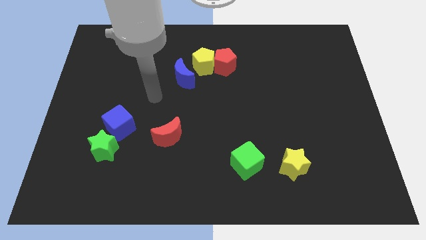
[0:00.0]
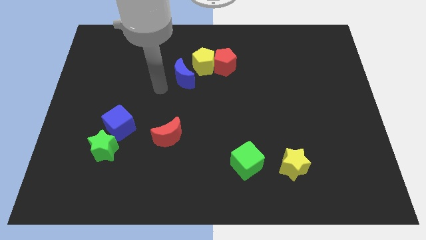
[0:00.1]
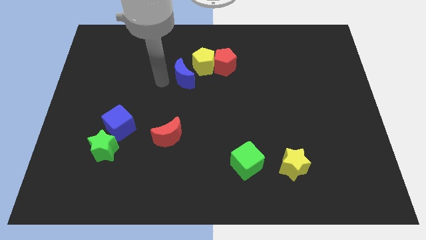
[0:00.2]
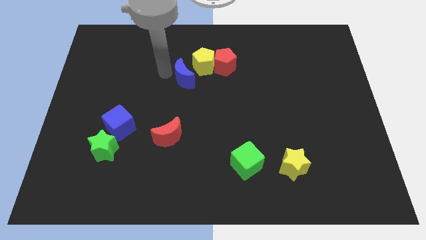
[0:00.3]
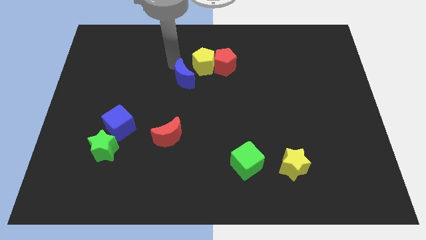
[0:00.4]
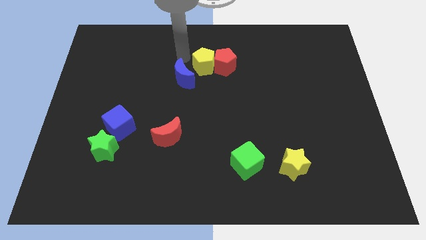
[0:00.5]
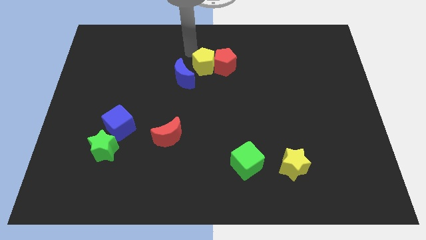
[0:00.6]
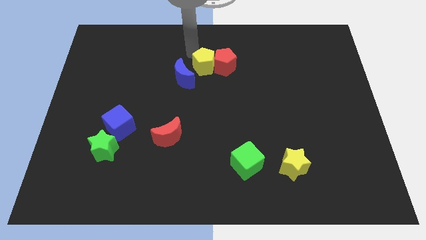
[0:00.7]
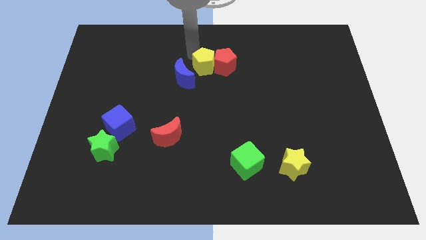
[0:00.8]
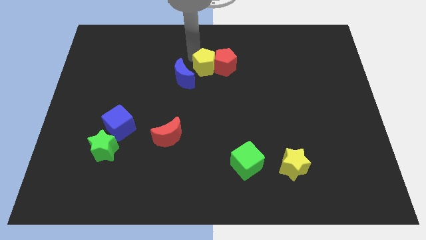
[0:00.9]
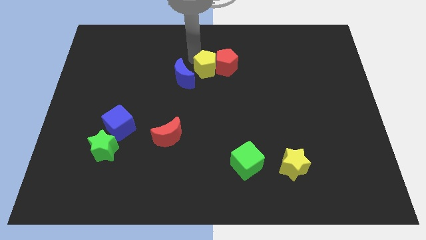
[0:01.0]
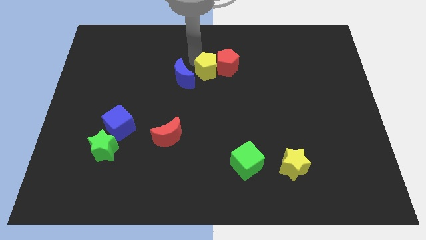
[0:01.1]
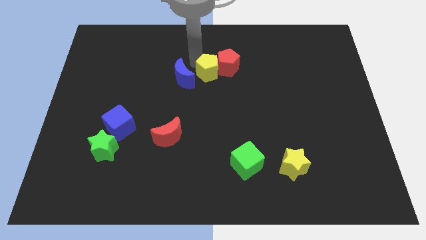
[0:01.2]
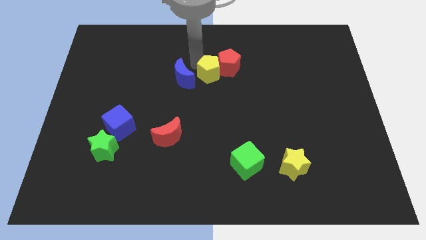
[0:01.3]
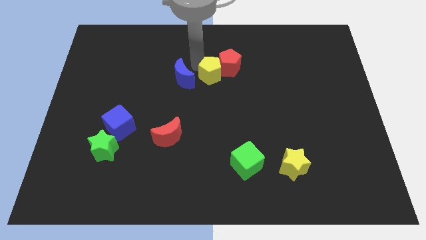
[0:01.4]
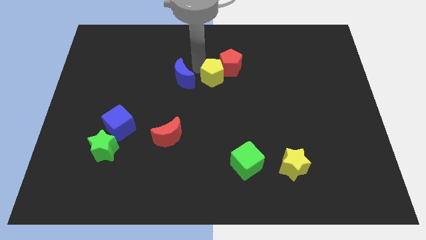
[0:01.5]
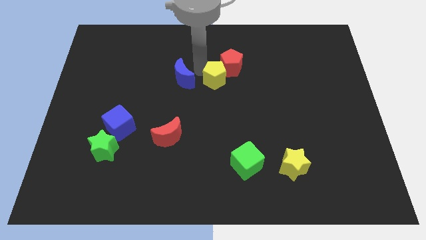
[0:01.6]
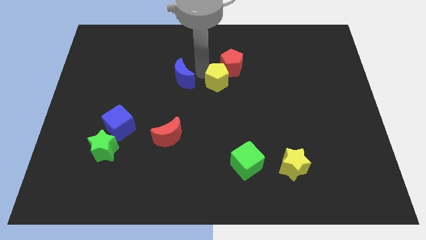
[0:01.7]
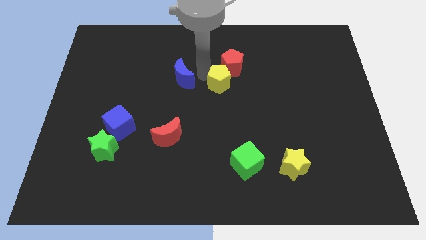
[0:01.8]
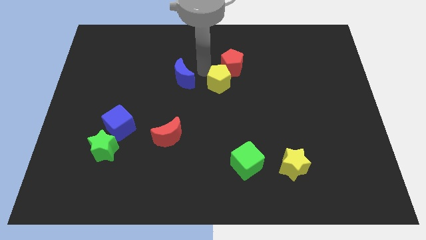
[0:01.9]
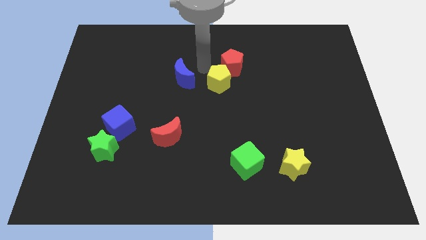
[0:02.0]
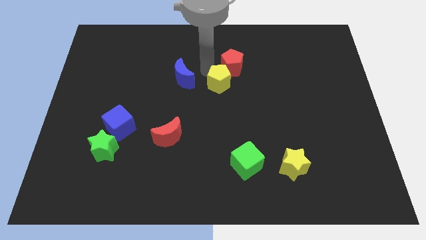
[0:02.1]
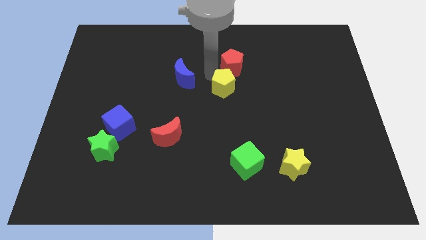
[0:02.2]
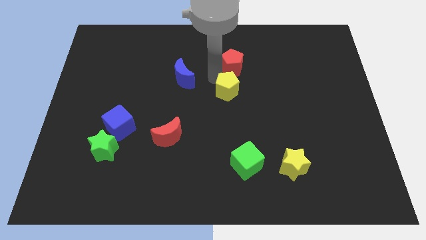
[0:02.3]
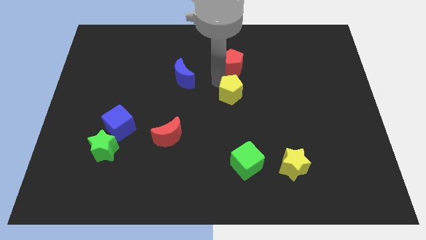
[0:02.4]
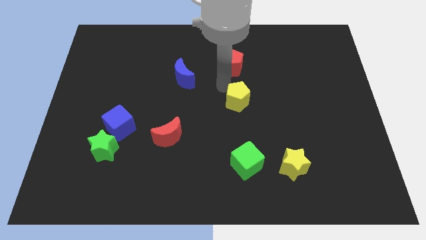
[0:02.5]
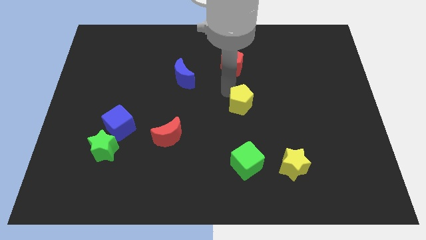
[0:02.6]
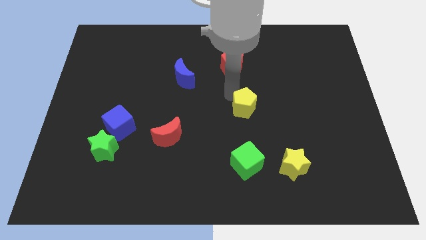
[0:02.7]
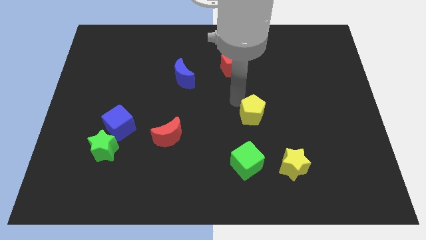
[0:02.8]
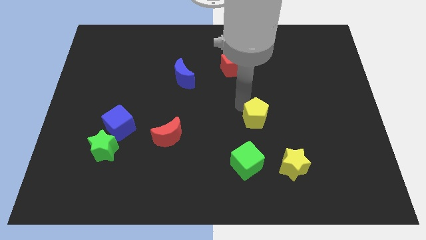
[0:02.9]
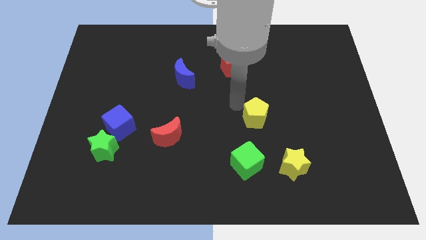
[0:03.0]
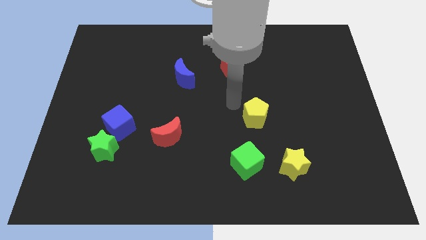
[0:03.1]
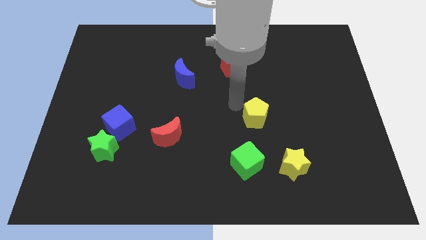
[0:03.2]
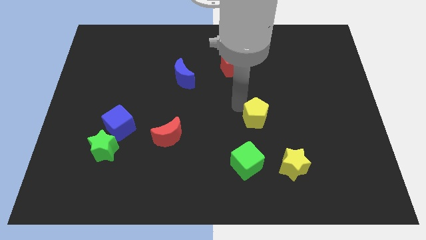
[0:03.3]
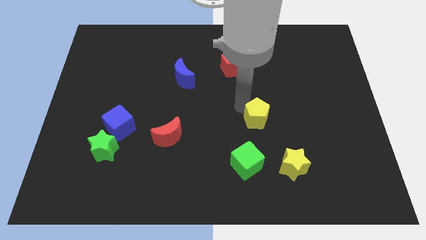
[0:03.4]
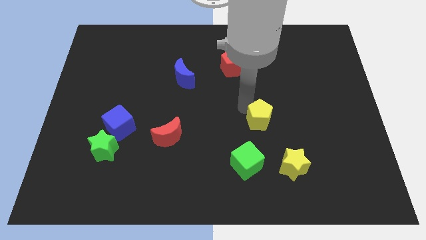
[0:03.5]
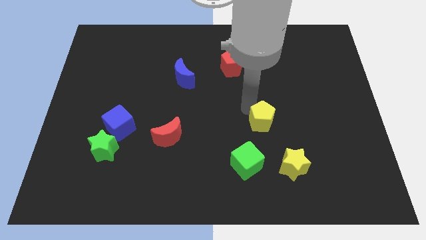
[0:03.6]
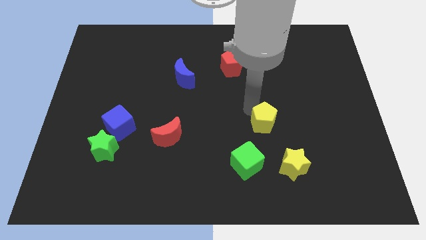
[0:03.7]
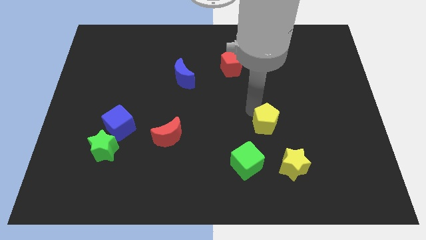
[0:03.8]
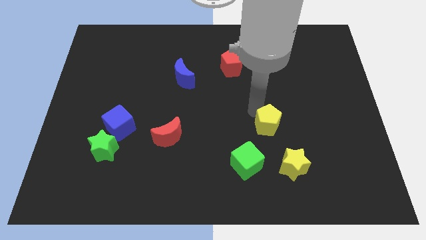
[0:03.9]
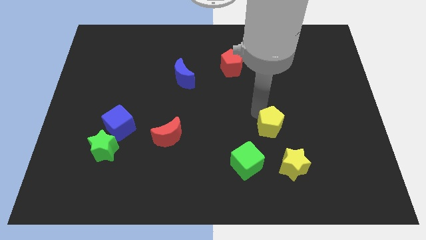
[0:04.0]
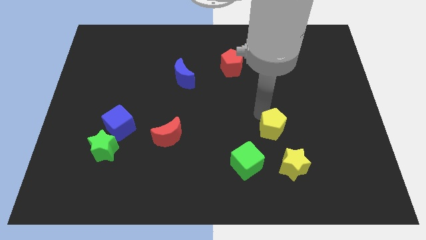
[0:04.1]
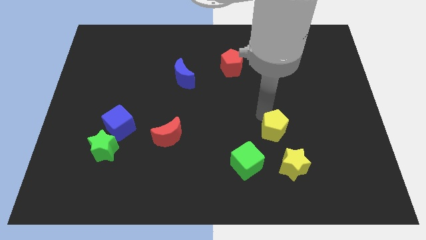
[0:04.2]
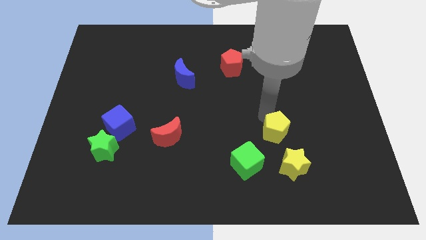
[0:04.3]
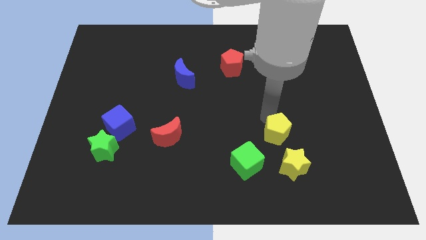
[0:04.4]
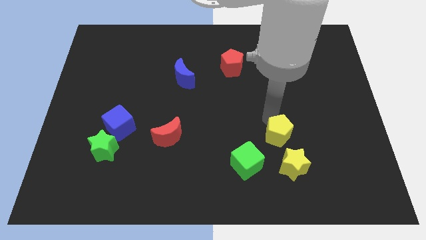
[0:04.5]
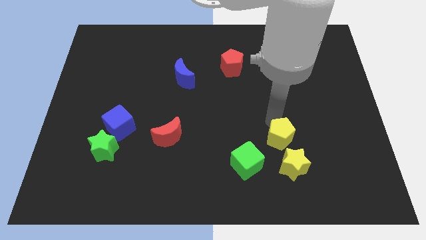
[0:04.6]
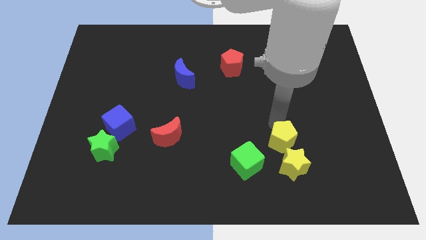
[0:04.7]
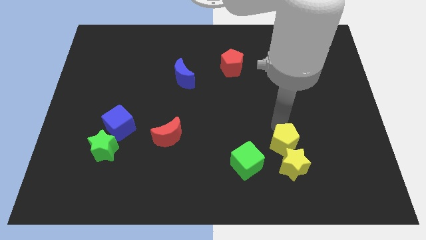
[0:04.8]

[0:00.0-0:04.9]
put the yellow pentagon towards the yellow star

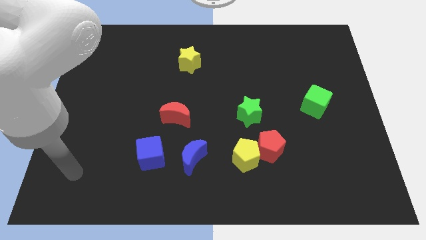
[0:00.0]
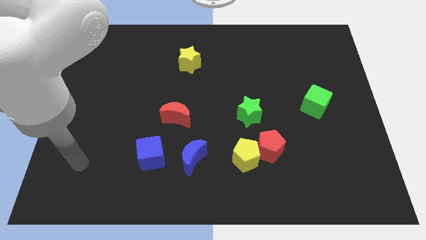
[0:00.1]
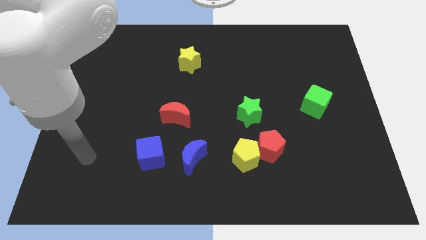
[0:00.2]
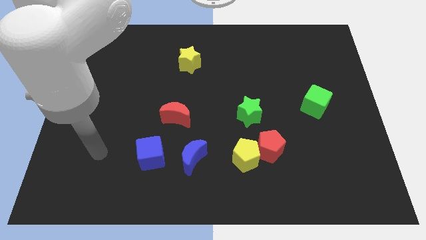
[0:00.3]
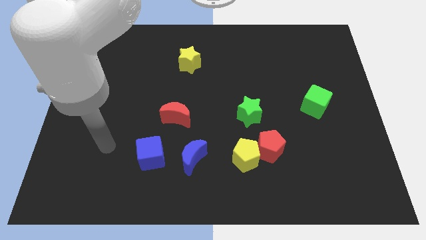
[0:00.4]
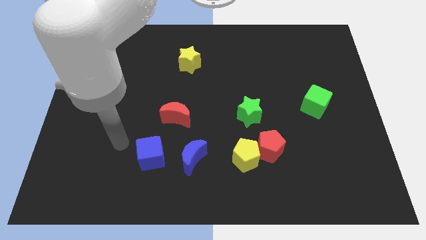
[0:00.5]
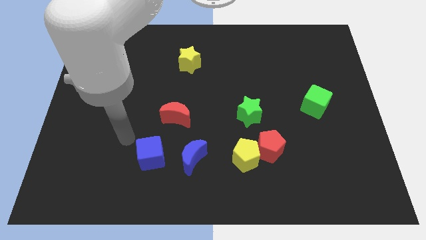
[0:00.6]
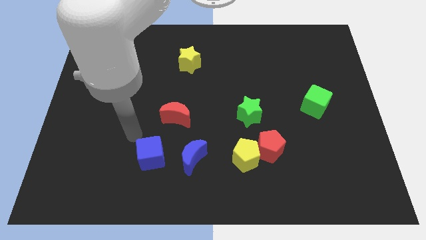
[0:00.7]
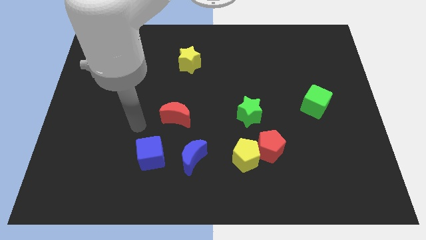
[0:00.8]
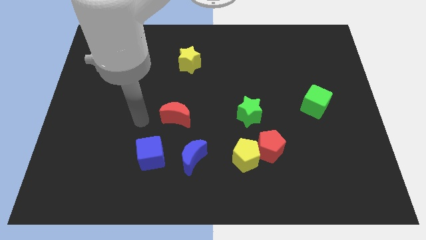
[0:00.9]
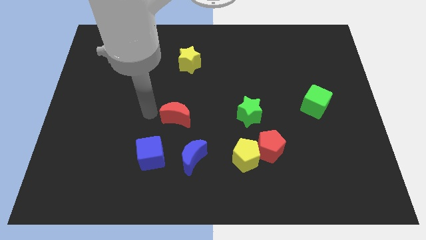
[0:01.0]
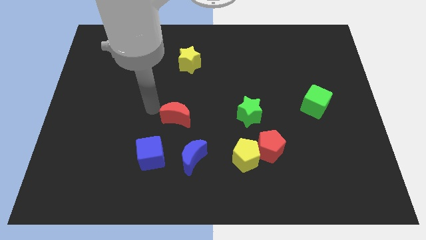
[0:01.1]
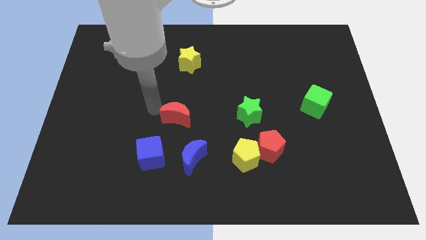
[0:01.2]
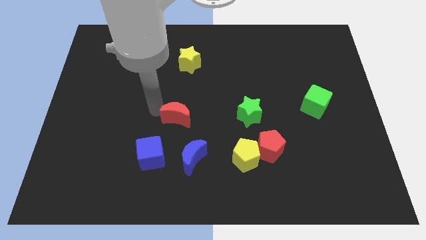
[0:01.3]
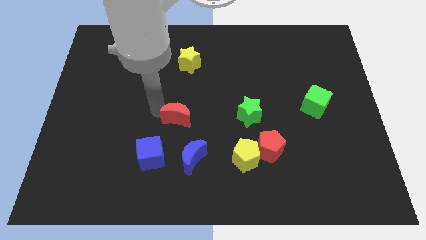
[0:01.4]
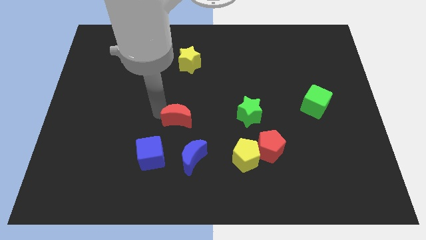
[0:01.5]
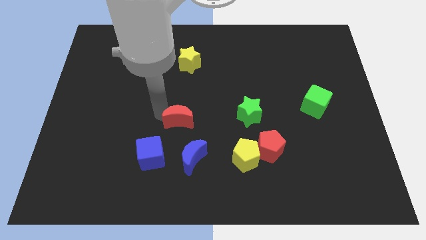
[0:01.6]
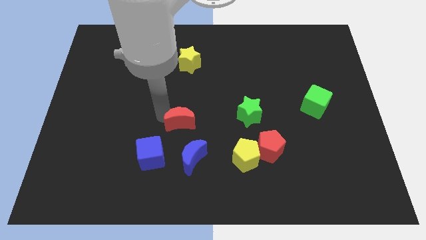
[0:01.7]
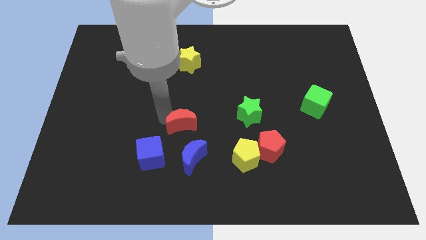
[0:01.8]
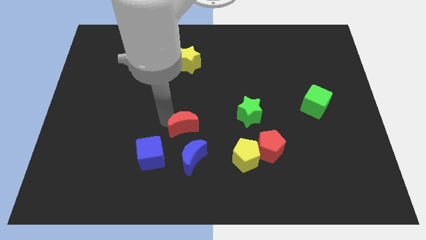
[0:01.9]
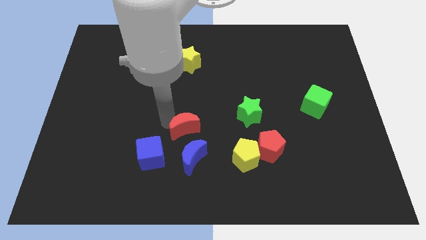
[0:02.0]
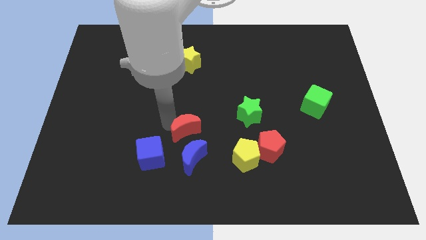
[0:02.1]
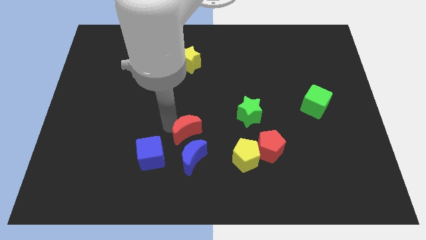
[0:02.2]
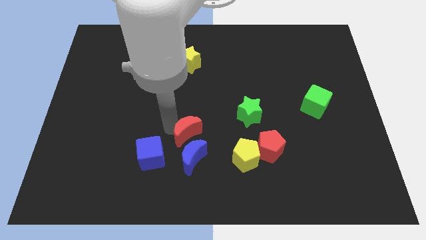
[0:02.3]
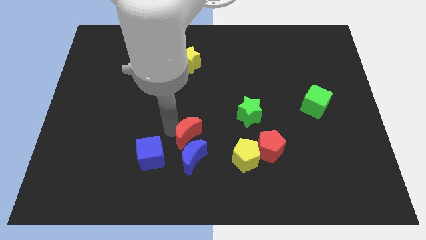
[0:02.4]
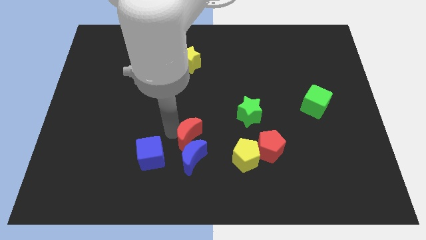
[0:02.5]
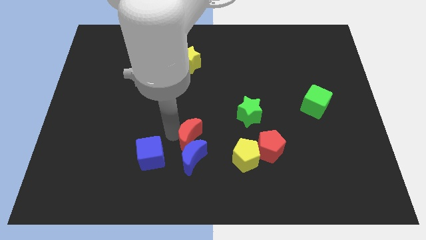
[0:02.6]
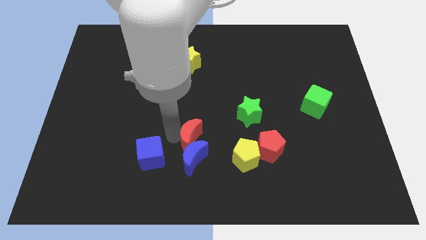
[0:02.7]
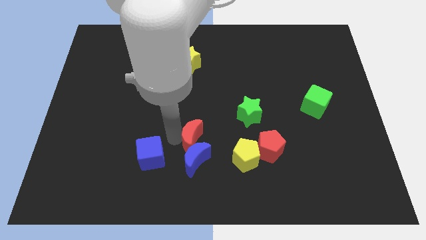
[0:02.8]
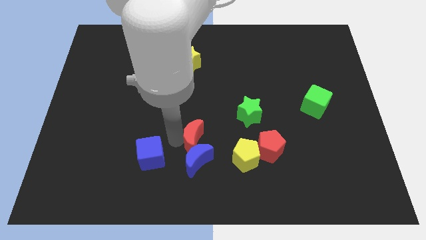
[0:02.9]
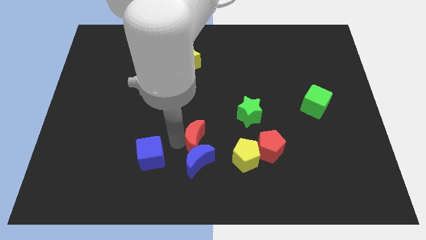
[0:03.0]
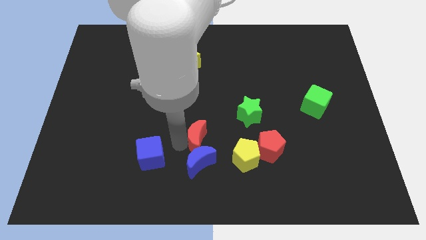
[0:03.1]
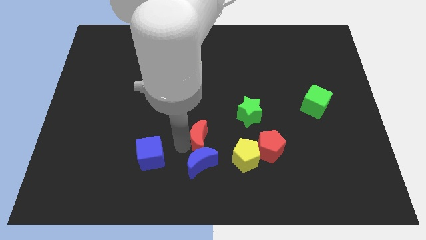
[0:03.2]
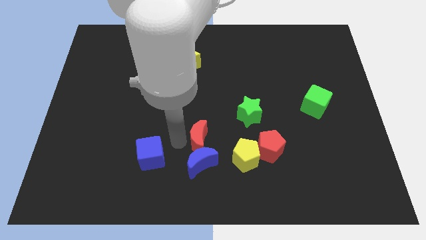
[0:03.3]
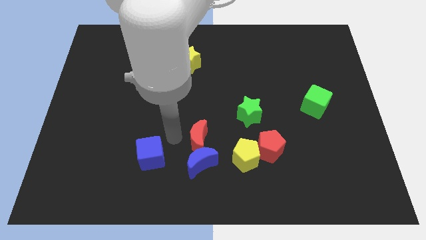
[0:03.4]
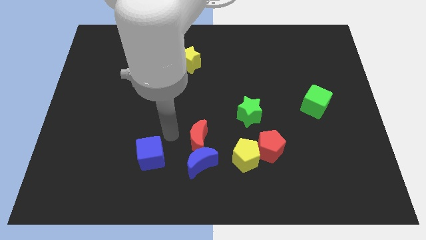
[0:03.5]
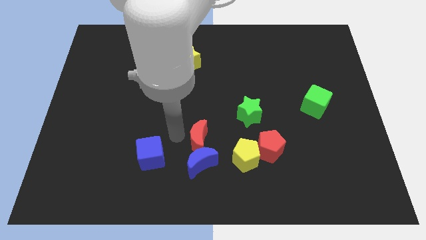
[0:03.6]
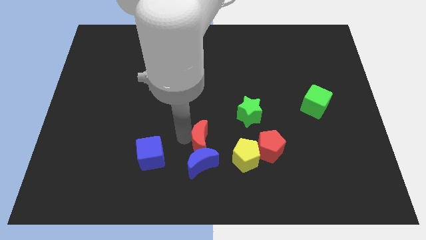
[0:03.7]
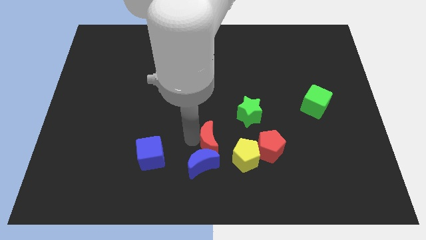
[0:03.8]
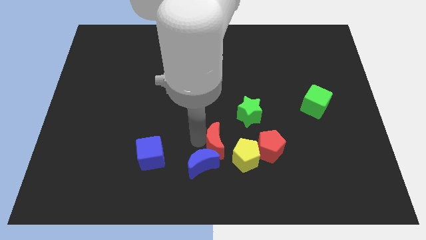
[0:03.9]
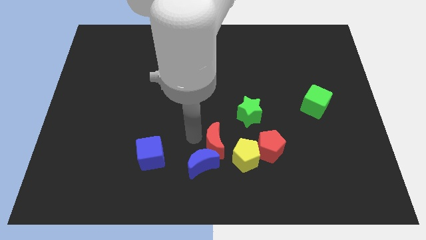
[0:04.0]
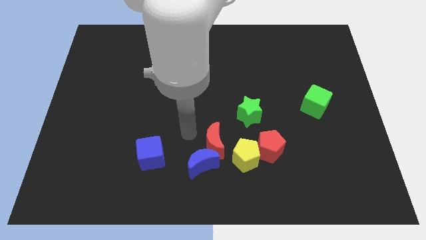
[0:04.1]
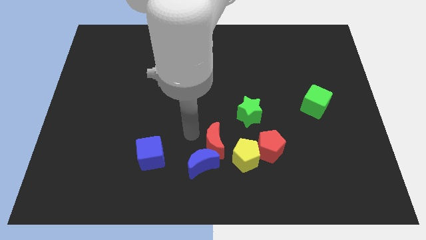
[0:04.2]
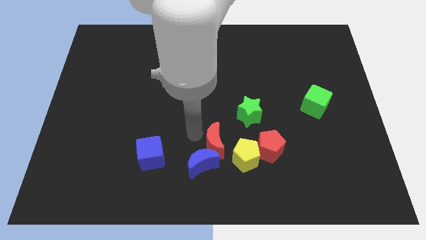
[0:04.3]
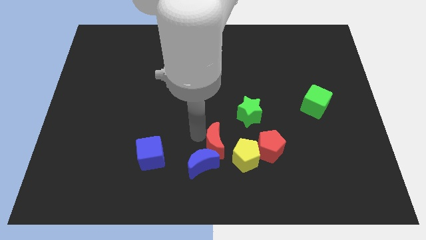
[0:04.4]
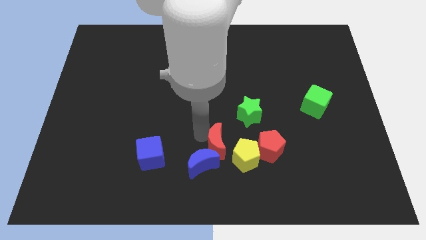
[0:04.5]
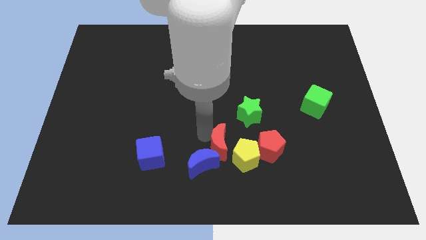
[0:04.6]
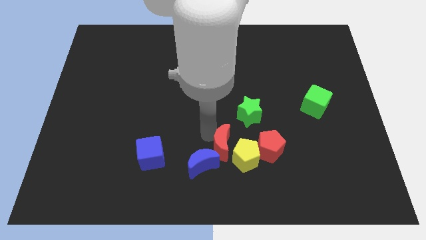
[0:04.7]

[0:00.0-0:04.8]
move the red moon close to the yellow pentagon
